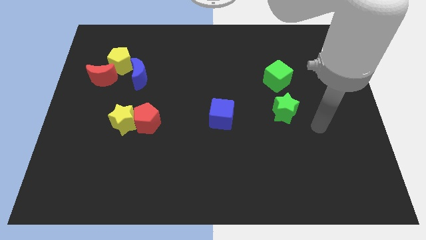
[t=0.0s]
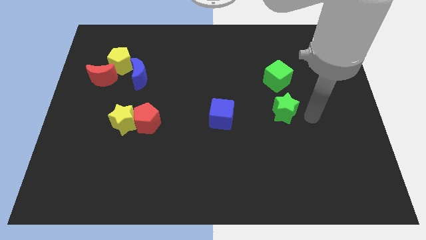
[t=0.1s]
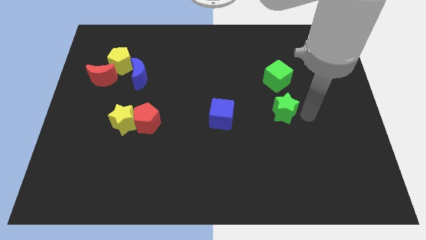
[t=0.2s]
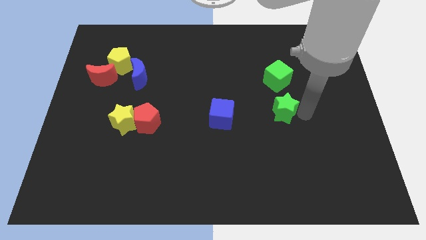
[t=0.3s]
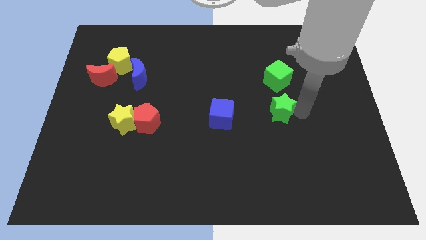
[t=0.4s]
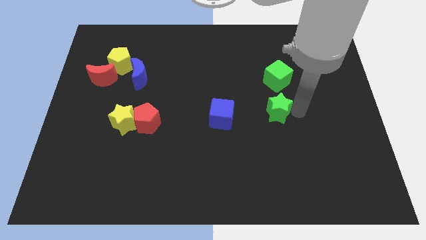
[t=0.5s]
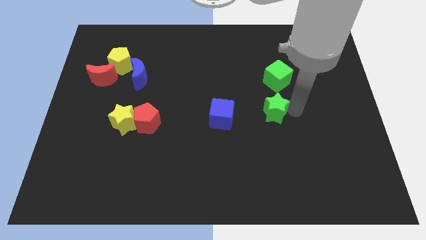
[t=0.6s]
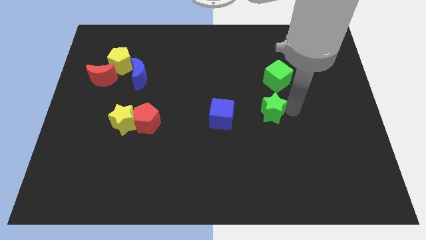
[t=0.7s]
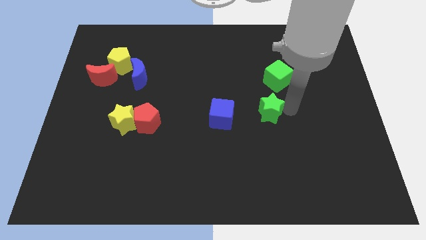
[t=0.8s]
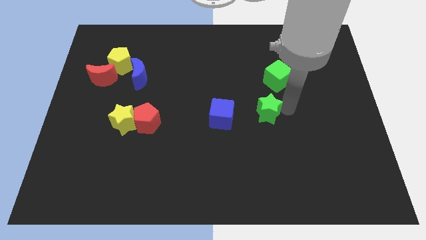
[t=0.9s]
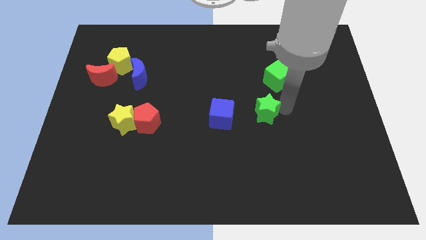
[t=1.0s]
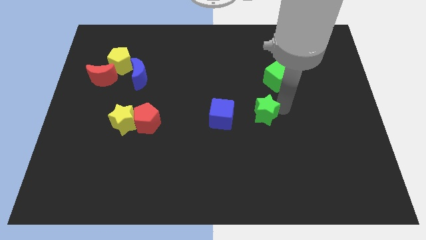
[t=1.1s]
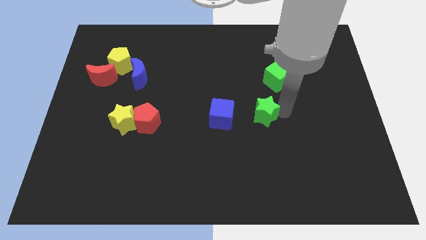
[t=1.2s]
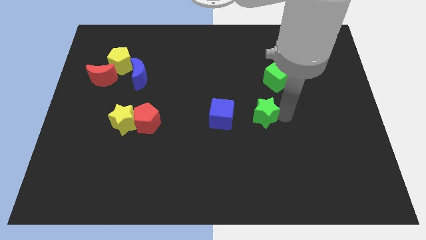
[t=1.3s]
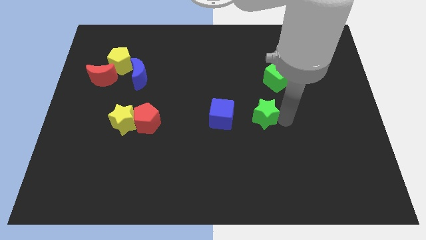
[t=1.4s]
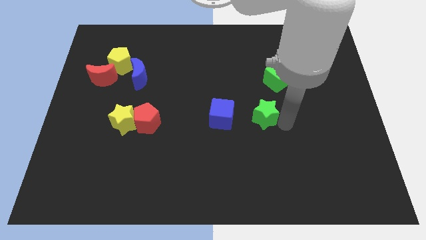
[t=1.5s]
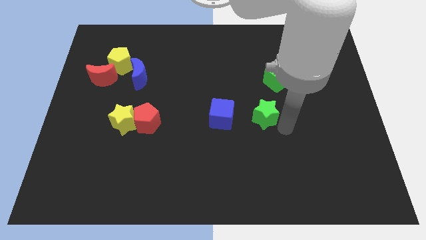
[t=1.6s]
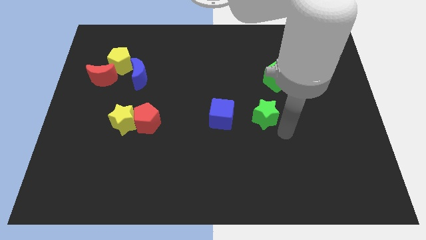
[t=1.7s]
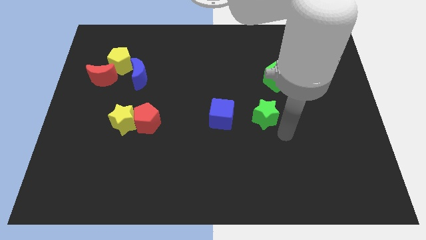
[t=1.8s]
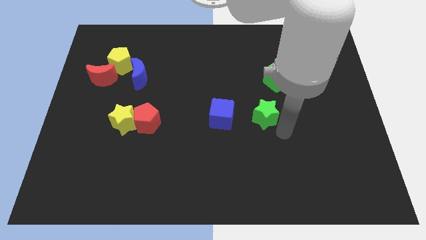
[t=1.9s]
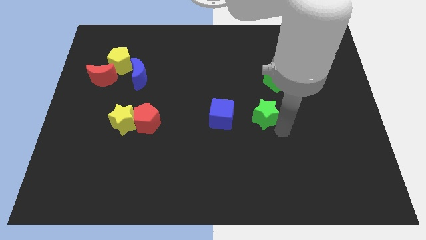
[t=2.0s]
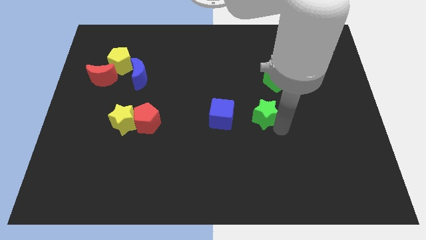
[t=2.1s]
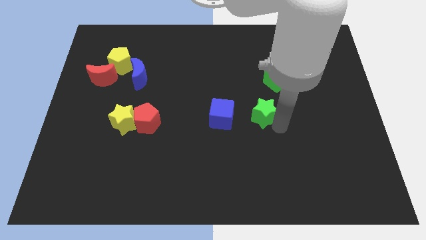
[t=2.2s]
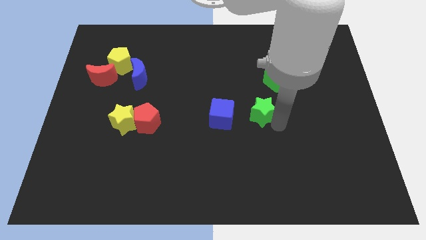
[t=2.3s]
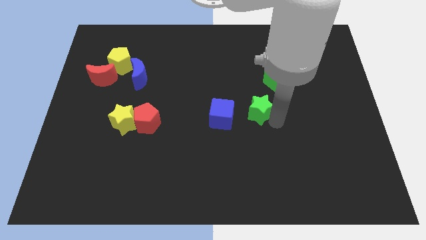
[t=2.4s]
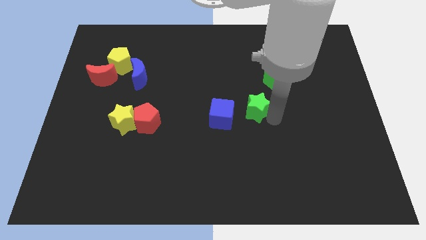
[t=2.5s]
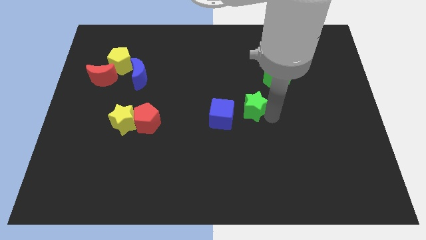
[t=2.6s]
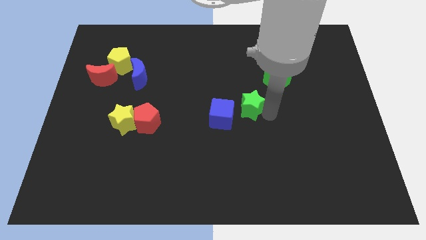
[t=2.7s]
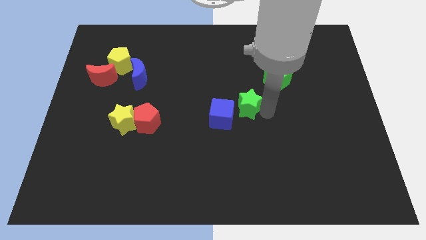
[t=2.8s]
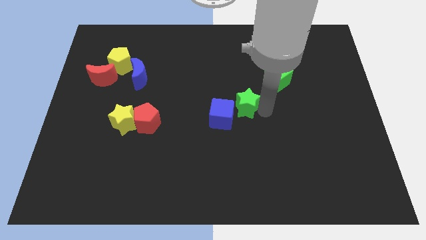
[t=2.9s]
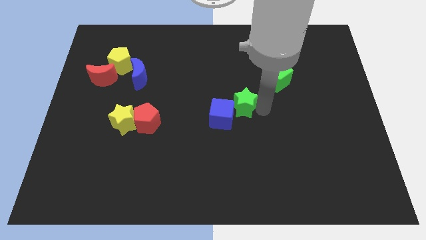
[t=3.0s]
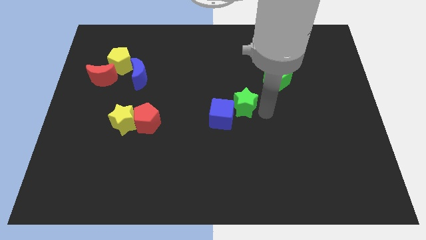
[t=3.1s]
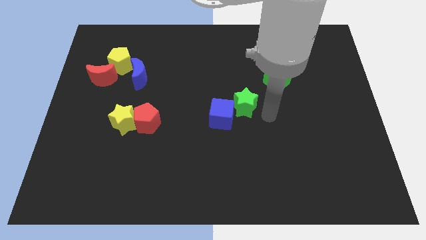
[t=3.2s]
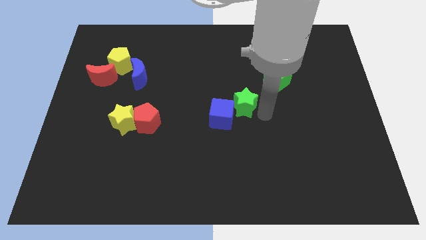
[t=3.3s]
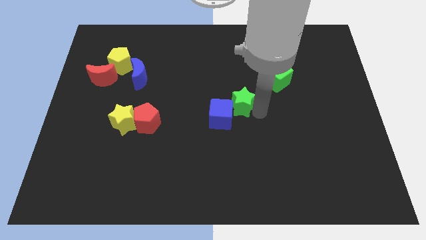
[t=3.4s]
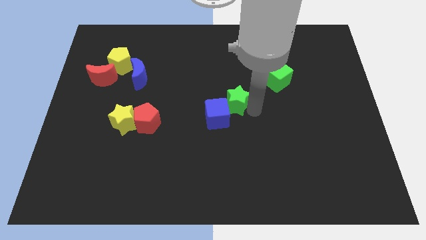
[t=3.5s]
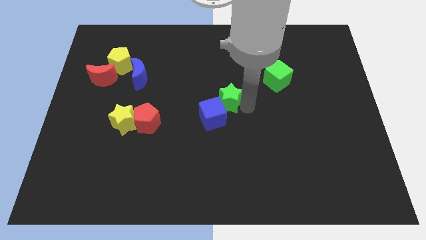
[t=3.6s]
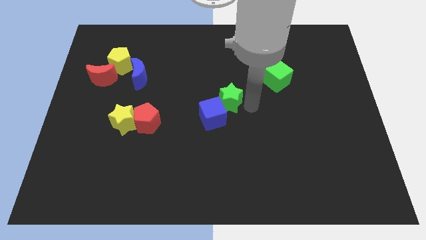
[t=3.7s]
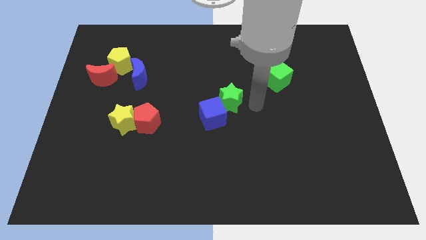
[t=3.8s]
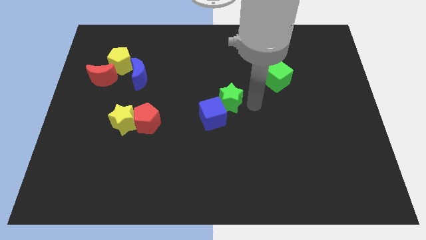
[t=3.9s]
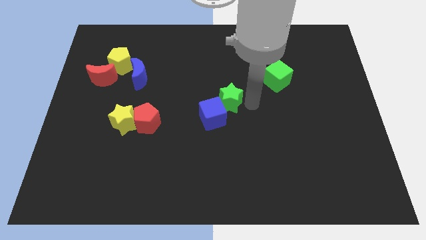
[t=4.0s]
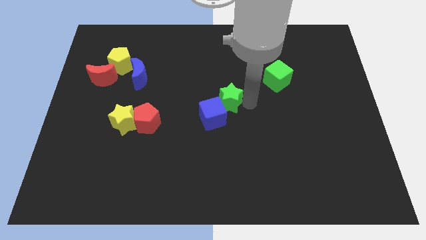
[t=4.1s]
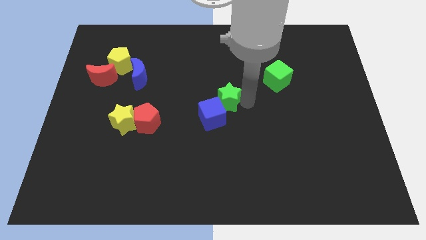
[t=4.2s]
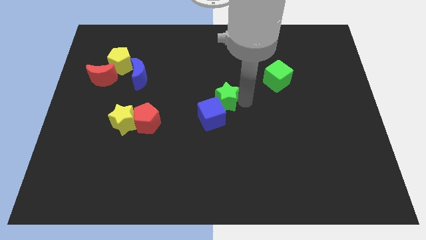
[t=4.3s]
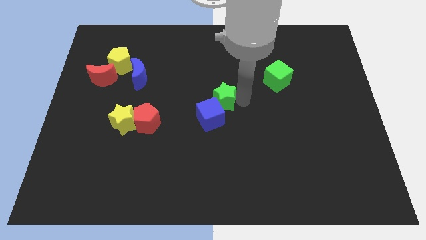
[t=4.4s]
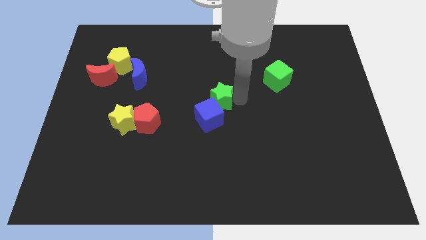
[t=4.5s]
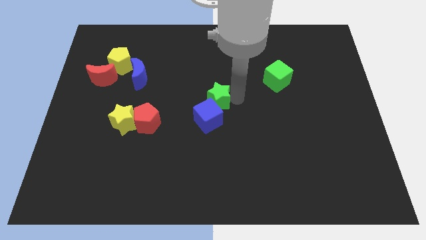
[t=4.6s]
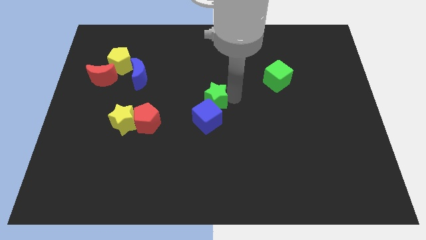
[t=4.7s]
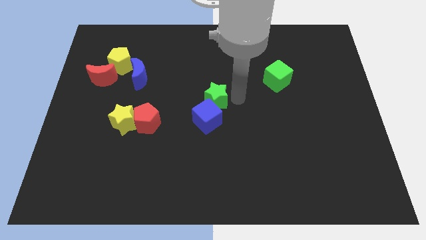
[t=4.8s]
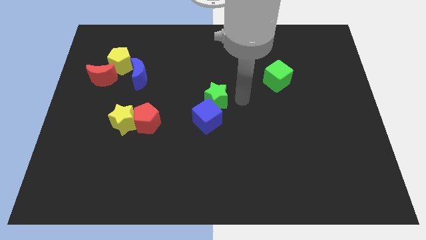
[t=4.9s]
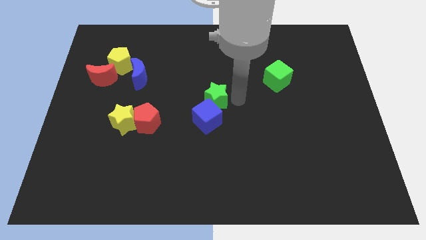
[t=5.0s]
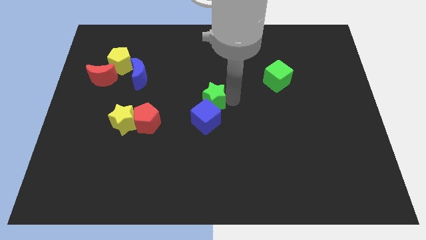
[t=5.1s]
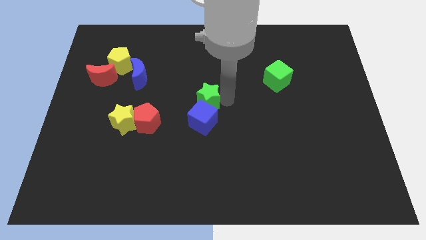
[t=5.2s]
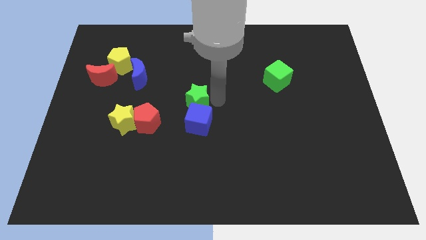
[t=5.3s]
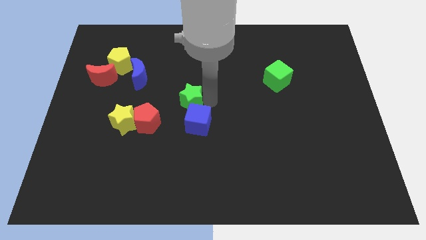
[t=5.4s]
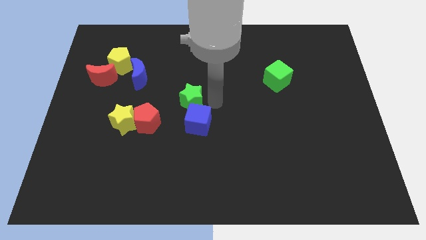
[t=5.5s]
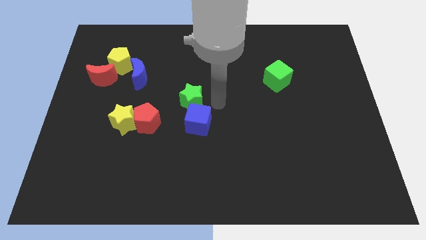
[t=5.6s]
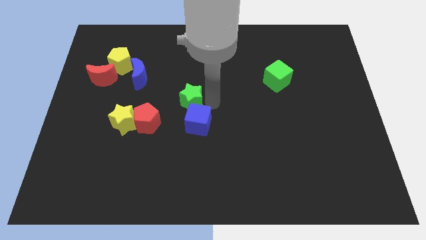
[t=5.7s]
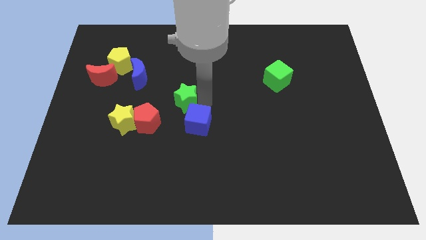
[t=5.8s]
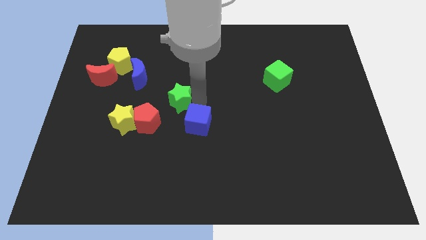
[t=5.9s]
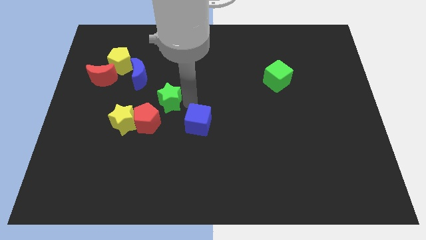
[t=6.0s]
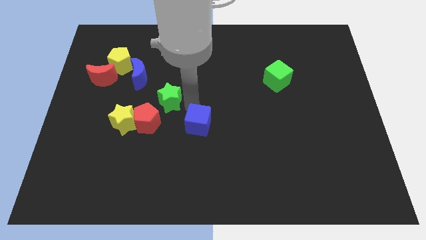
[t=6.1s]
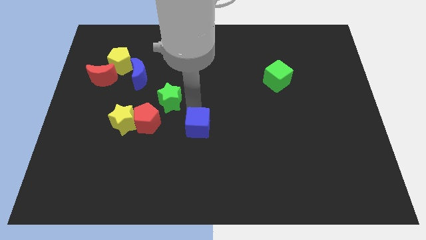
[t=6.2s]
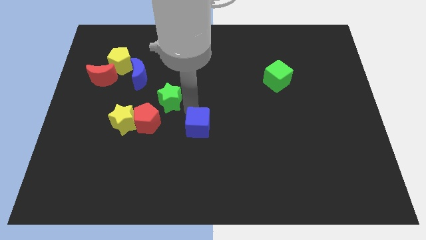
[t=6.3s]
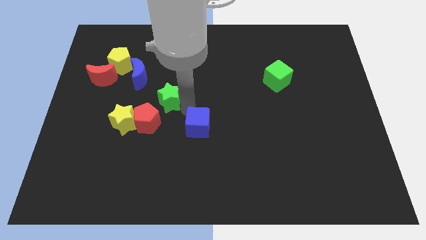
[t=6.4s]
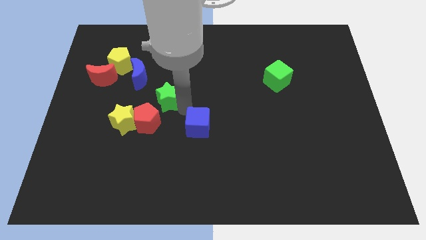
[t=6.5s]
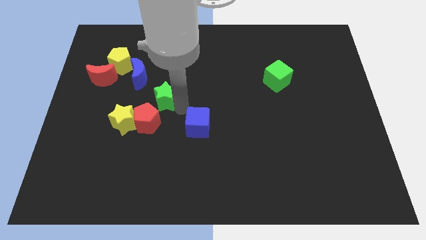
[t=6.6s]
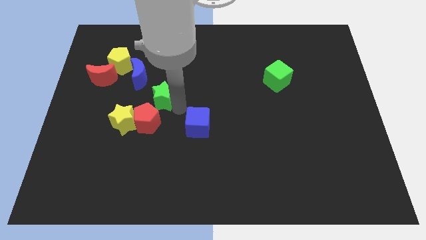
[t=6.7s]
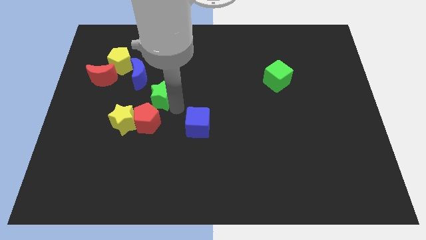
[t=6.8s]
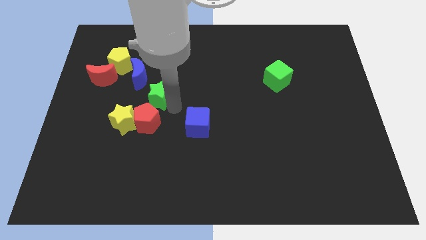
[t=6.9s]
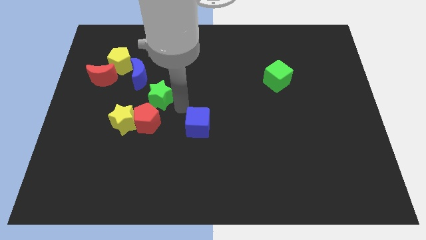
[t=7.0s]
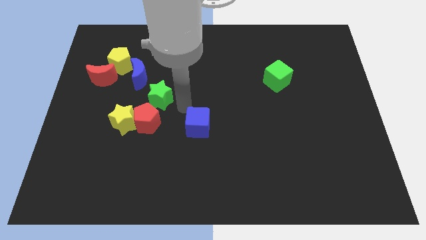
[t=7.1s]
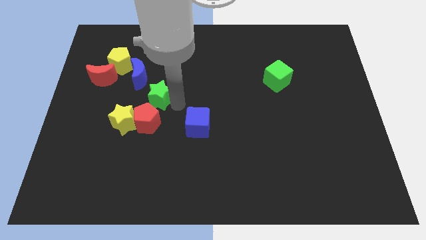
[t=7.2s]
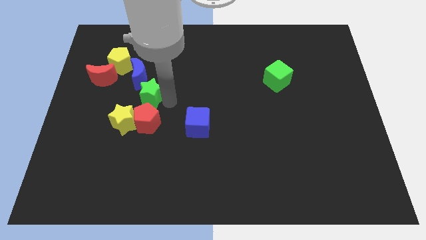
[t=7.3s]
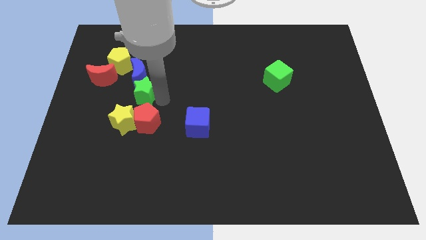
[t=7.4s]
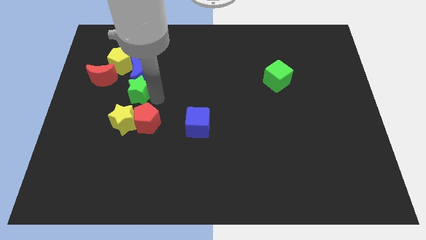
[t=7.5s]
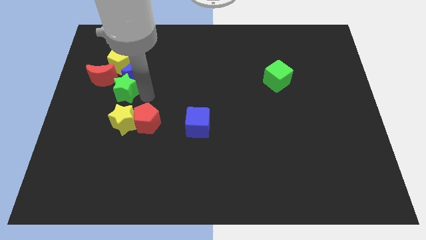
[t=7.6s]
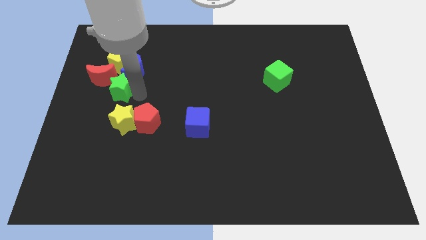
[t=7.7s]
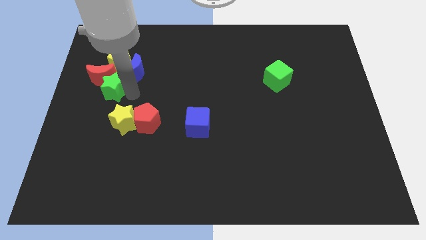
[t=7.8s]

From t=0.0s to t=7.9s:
push the green star close to the red moon
